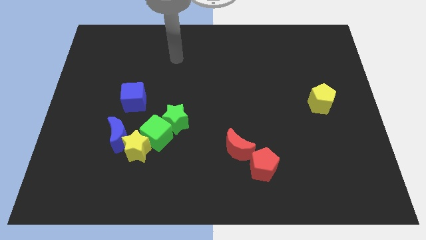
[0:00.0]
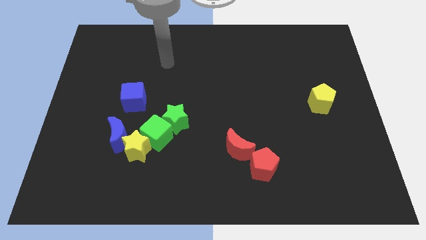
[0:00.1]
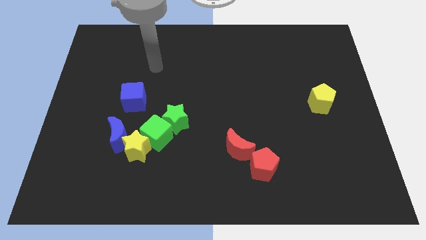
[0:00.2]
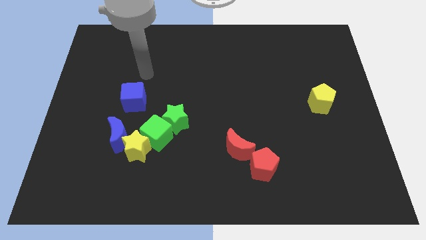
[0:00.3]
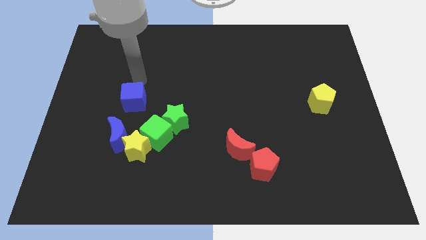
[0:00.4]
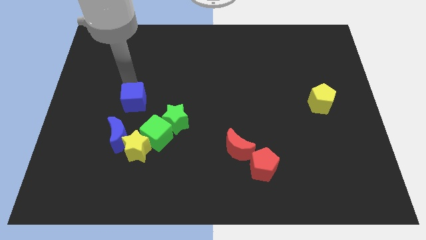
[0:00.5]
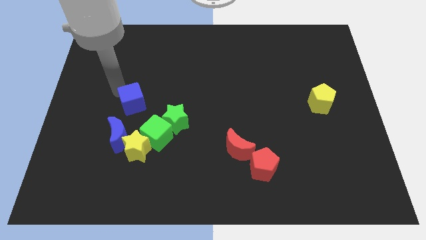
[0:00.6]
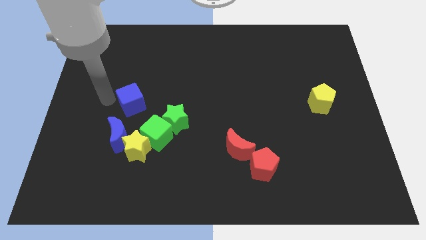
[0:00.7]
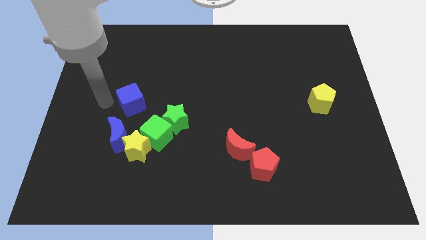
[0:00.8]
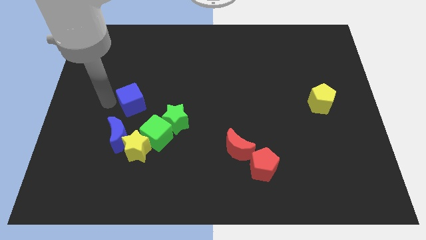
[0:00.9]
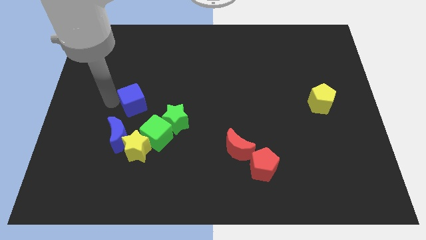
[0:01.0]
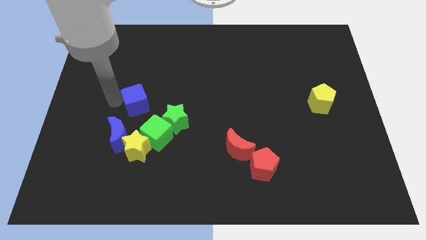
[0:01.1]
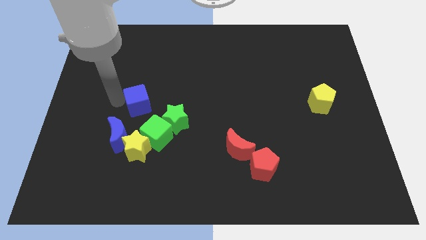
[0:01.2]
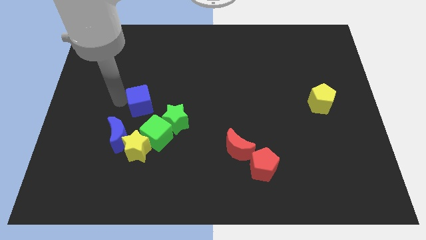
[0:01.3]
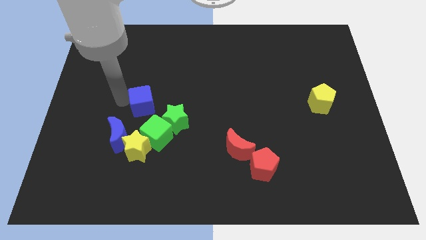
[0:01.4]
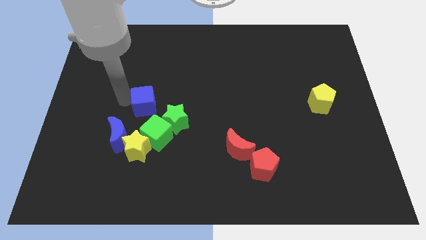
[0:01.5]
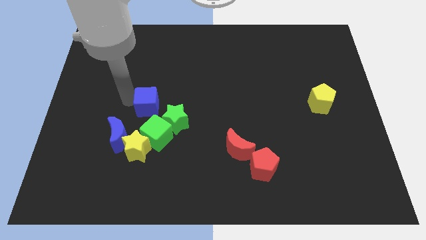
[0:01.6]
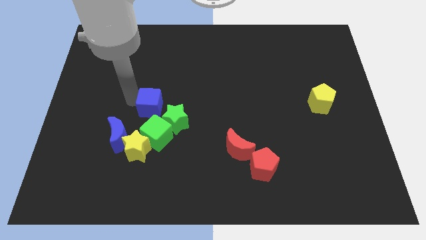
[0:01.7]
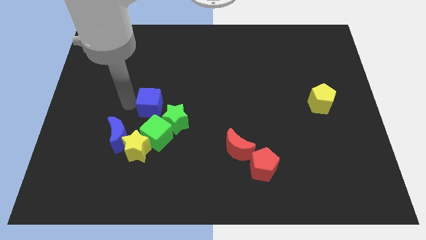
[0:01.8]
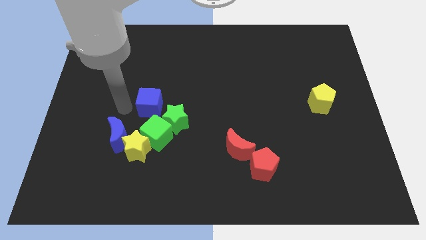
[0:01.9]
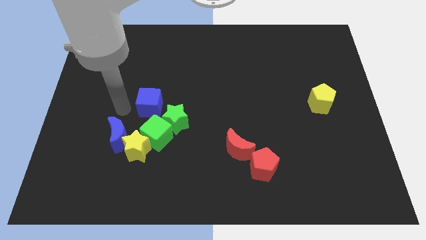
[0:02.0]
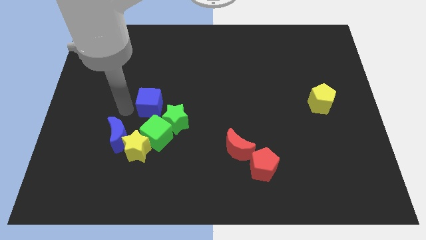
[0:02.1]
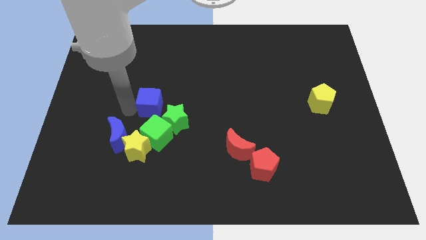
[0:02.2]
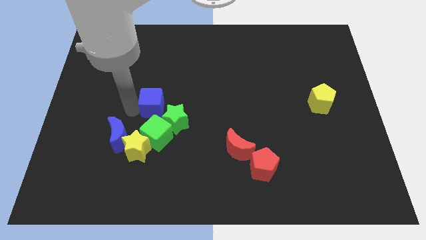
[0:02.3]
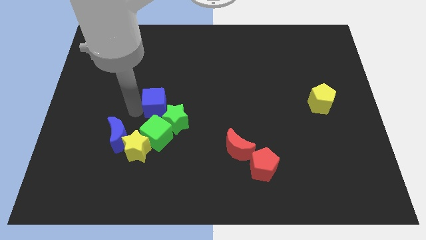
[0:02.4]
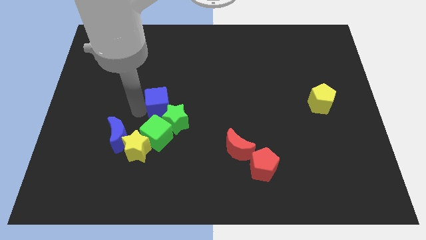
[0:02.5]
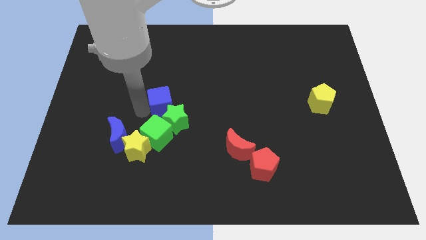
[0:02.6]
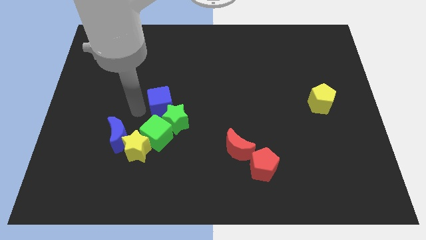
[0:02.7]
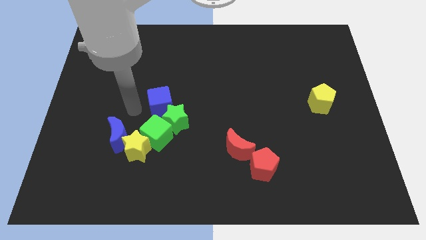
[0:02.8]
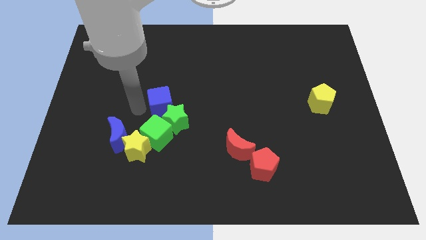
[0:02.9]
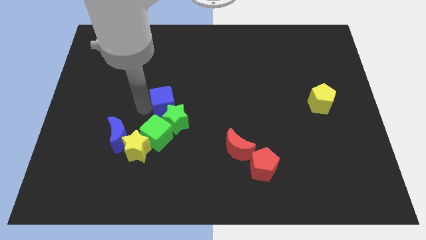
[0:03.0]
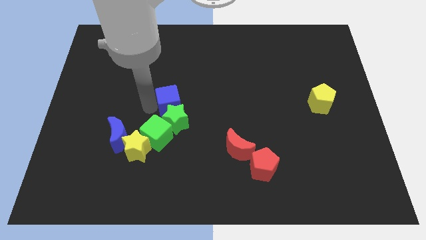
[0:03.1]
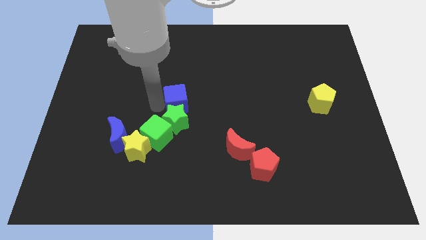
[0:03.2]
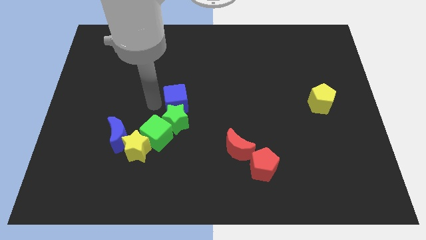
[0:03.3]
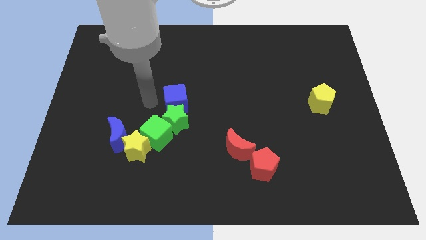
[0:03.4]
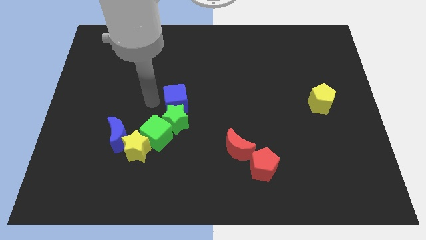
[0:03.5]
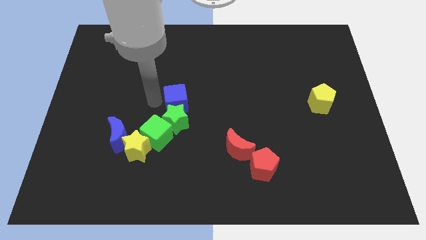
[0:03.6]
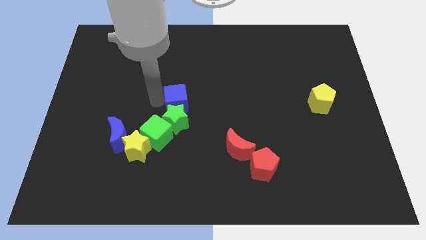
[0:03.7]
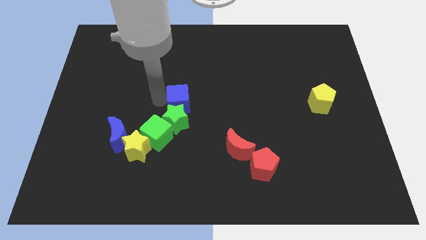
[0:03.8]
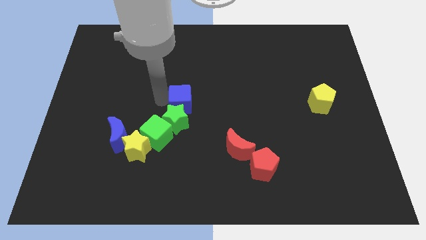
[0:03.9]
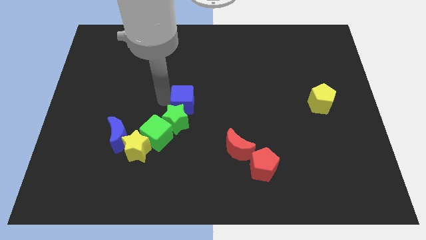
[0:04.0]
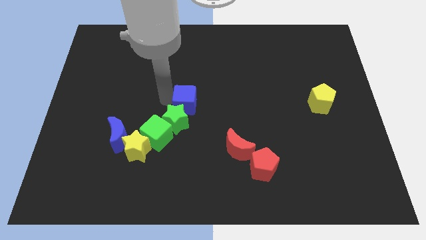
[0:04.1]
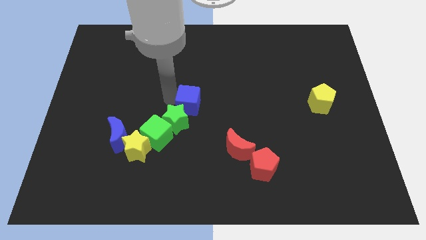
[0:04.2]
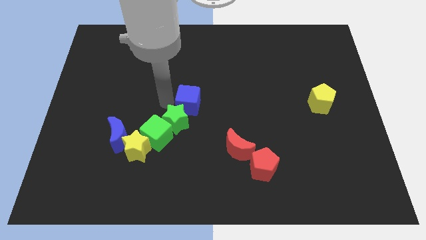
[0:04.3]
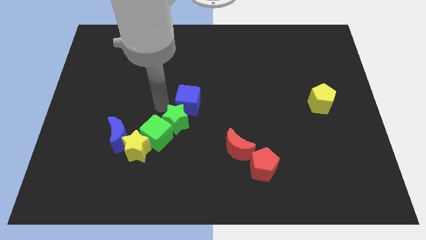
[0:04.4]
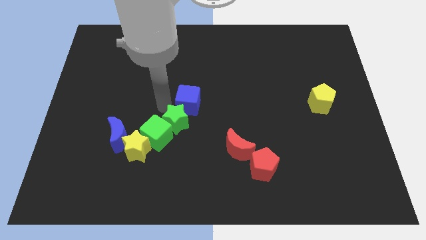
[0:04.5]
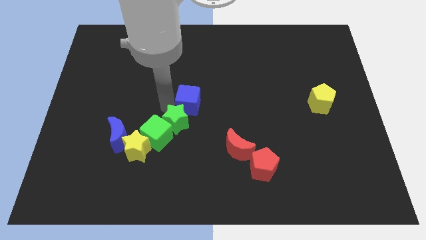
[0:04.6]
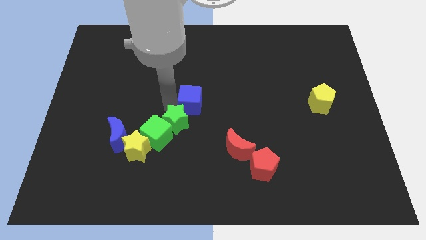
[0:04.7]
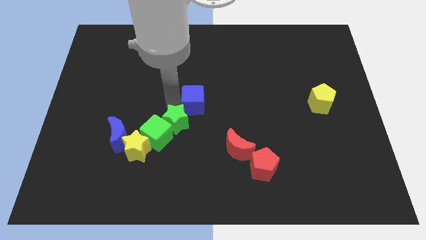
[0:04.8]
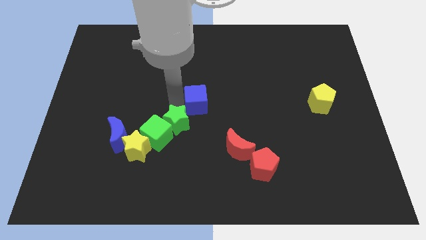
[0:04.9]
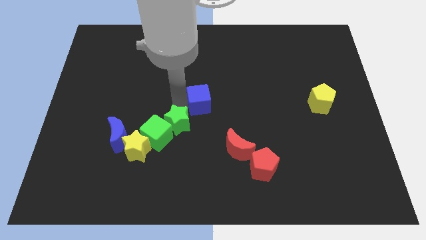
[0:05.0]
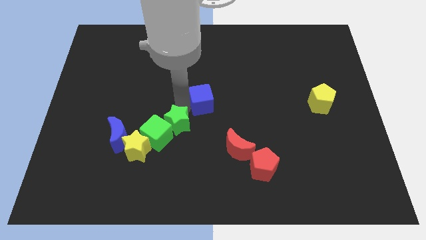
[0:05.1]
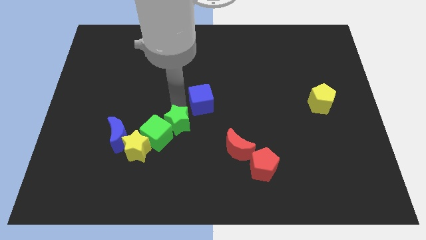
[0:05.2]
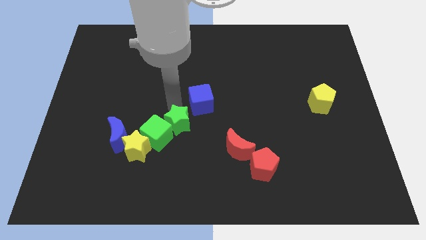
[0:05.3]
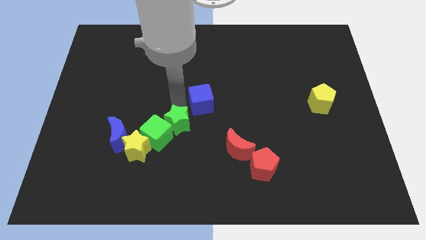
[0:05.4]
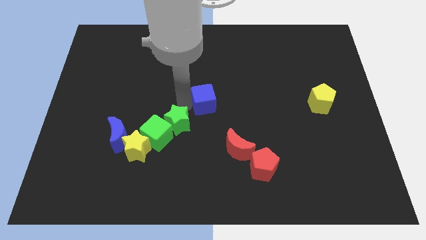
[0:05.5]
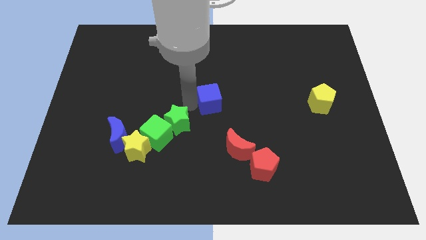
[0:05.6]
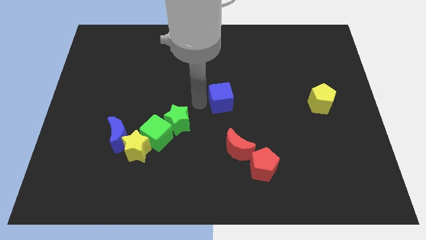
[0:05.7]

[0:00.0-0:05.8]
push the blue cube right

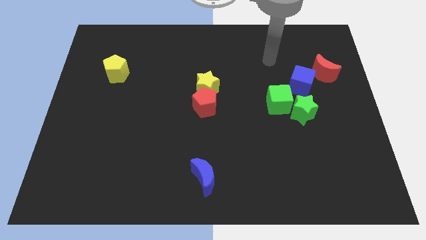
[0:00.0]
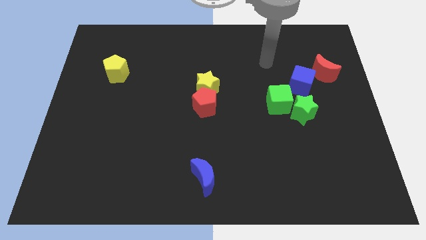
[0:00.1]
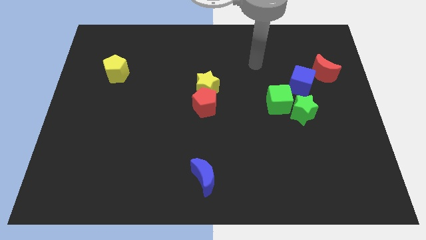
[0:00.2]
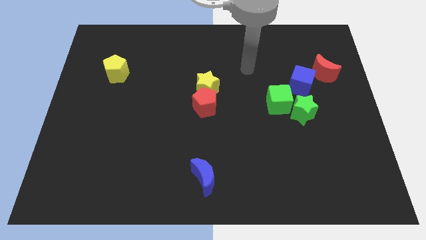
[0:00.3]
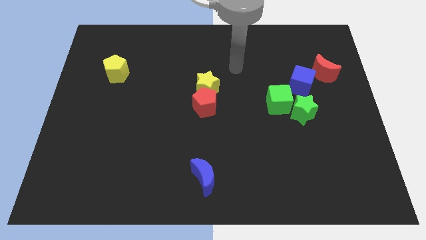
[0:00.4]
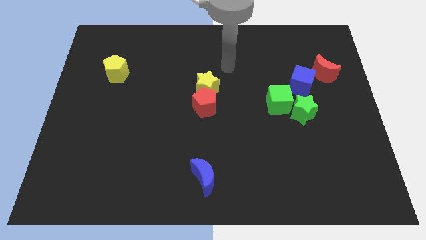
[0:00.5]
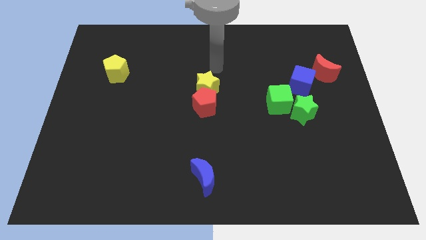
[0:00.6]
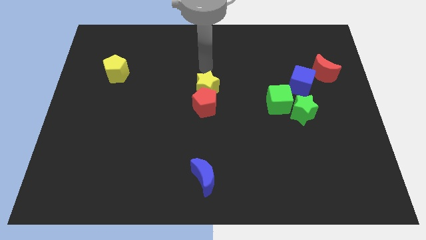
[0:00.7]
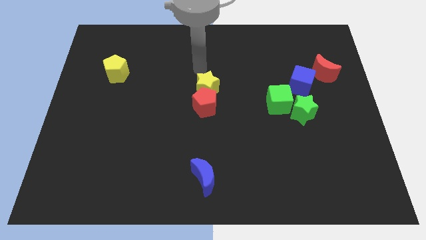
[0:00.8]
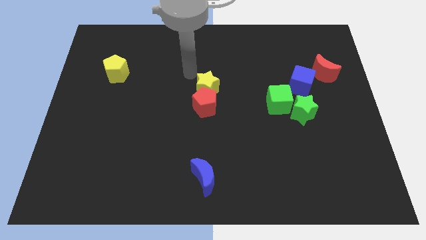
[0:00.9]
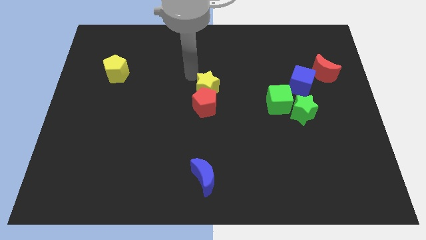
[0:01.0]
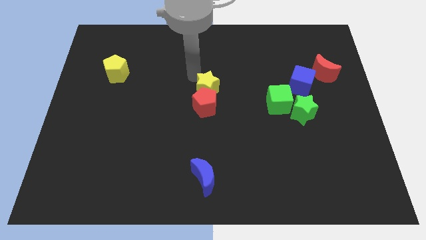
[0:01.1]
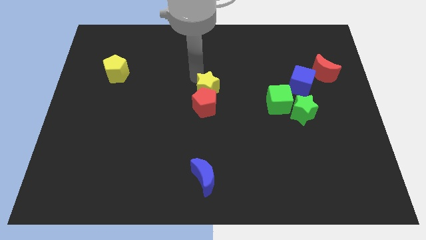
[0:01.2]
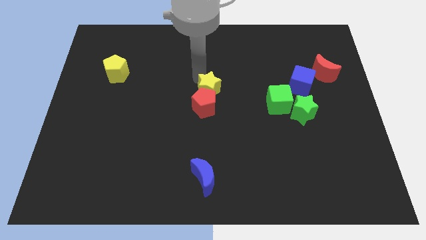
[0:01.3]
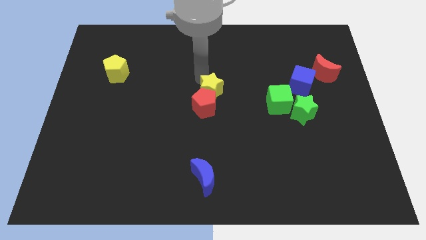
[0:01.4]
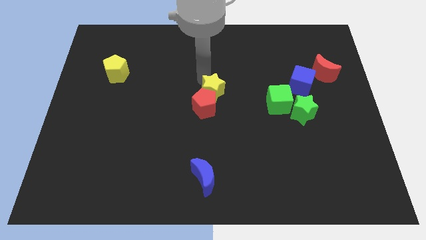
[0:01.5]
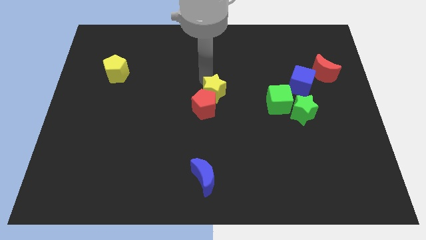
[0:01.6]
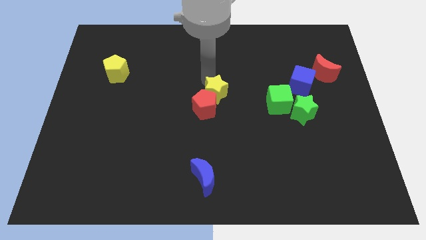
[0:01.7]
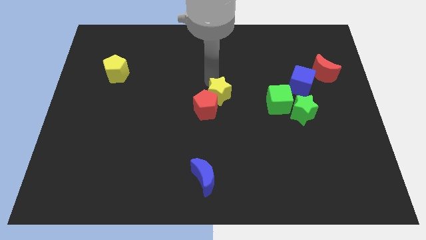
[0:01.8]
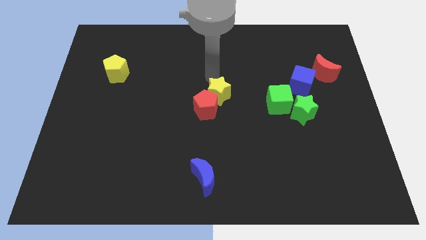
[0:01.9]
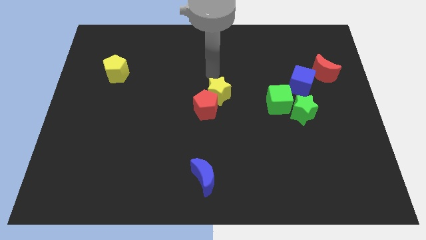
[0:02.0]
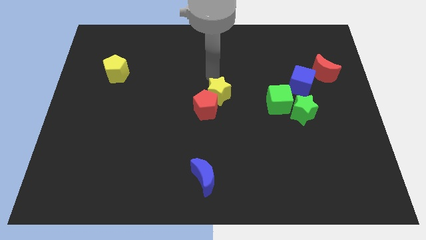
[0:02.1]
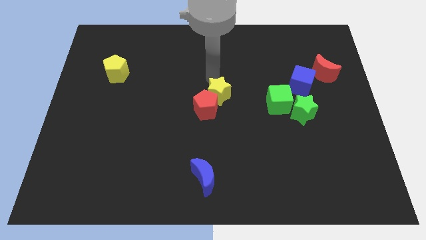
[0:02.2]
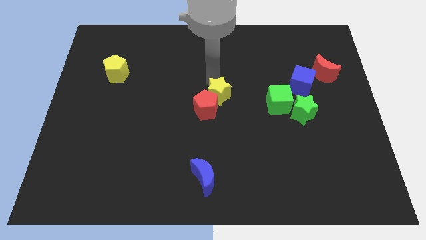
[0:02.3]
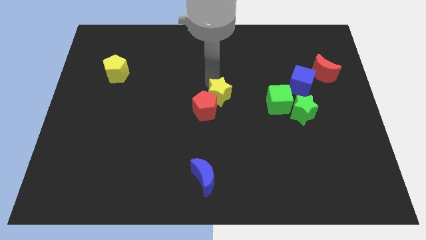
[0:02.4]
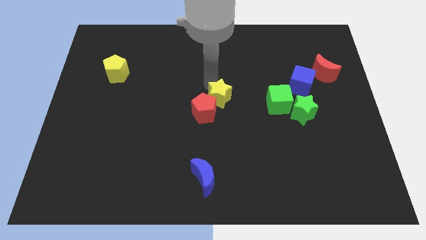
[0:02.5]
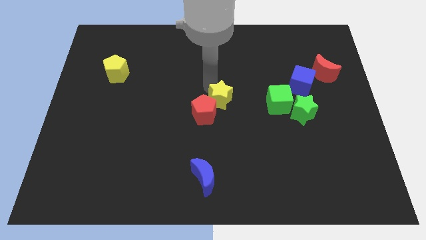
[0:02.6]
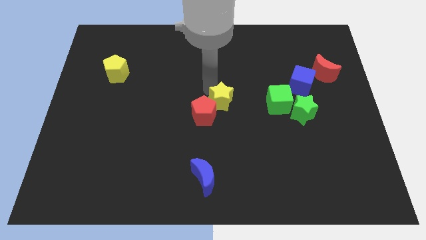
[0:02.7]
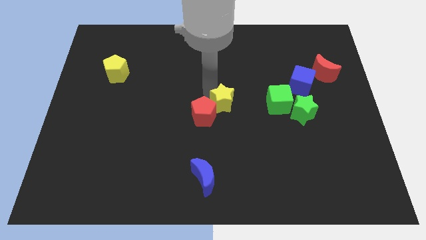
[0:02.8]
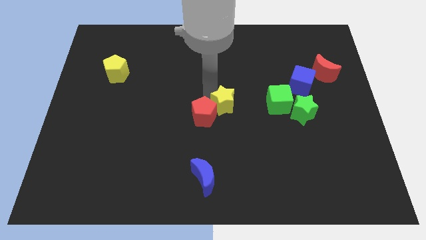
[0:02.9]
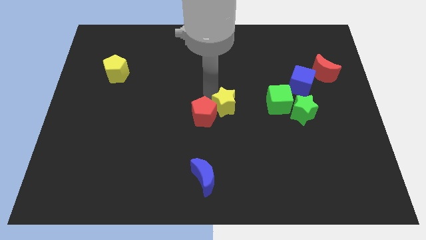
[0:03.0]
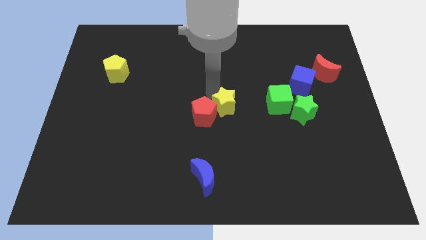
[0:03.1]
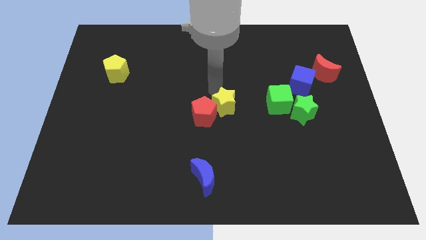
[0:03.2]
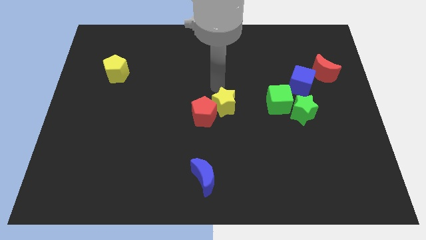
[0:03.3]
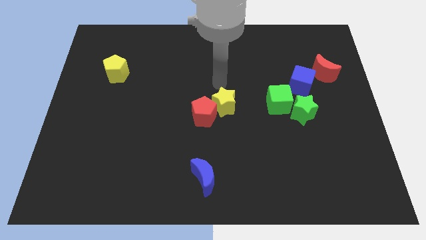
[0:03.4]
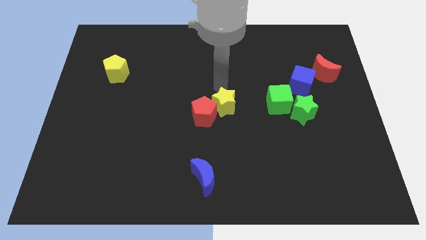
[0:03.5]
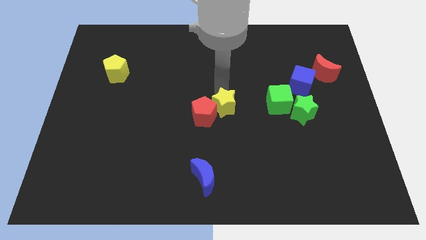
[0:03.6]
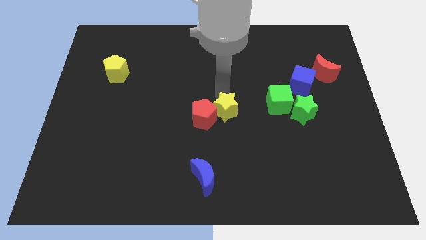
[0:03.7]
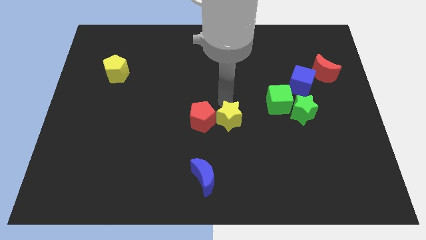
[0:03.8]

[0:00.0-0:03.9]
move the yellow star down a bit
